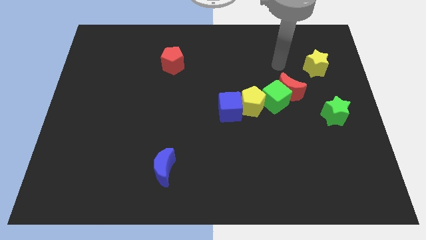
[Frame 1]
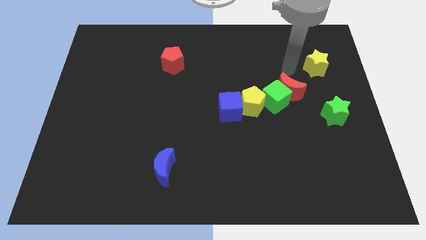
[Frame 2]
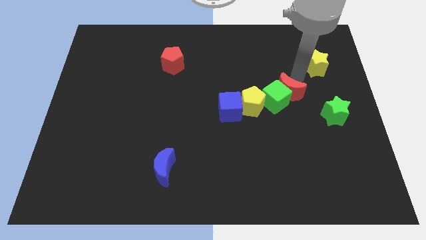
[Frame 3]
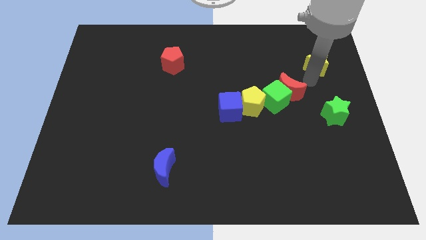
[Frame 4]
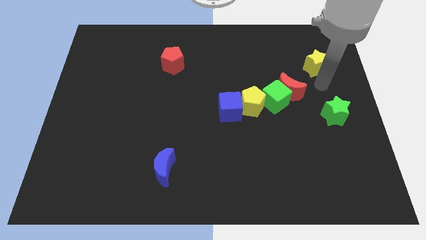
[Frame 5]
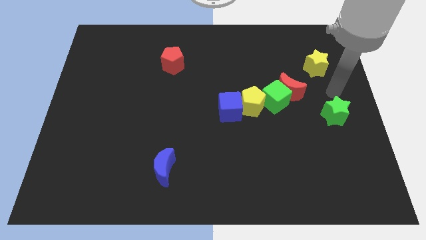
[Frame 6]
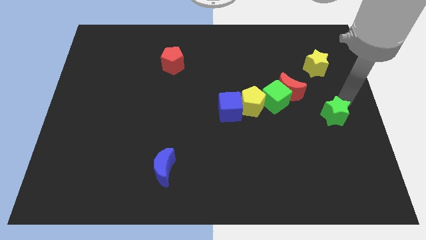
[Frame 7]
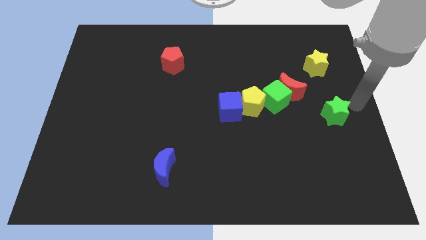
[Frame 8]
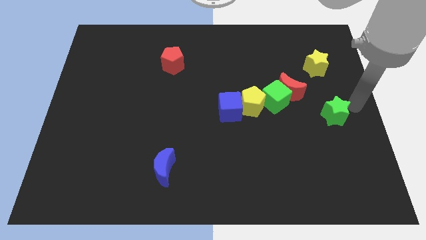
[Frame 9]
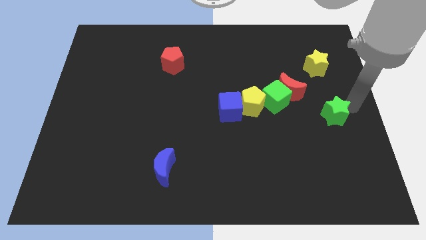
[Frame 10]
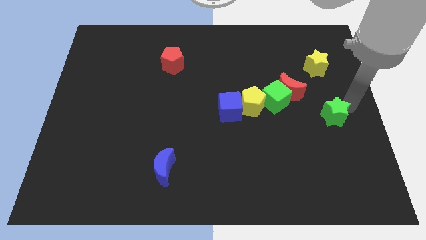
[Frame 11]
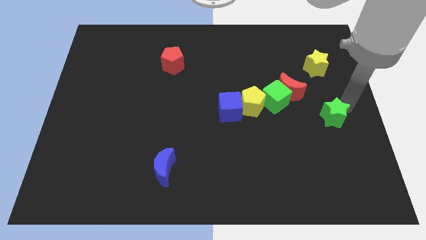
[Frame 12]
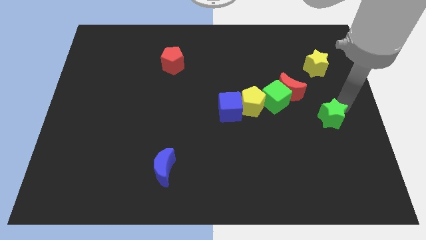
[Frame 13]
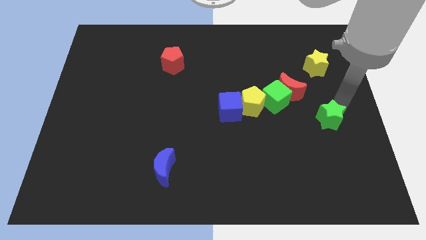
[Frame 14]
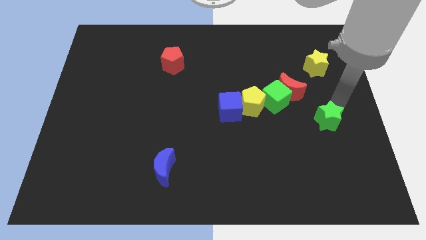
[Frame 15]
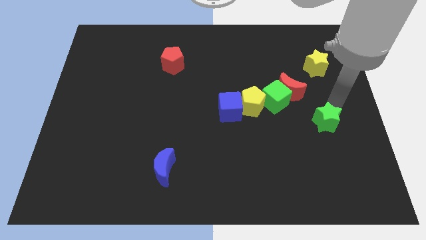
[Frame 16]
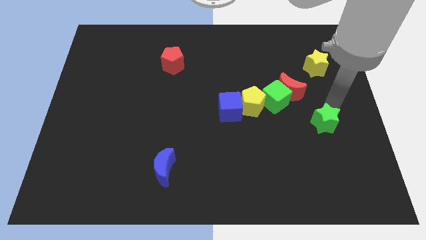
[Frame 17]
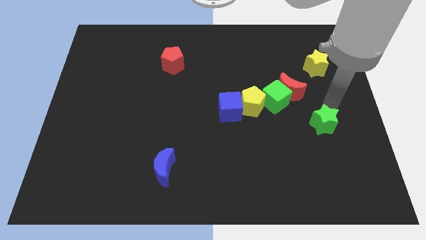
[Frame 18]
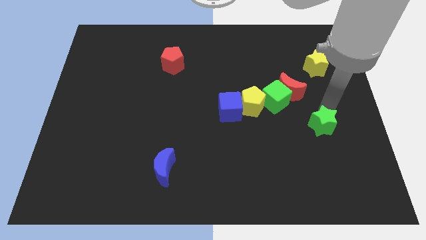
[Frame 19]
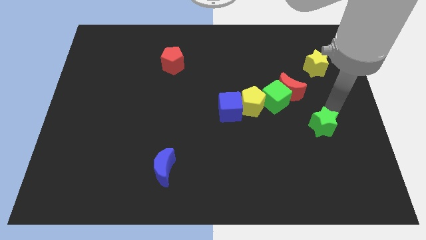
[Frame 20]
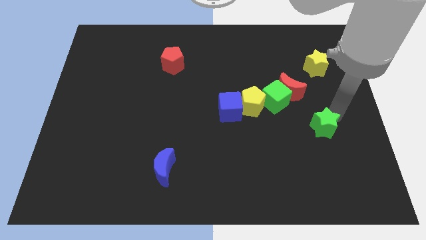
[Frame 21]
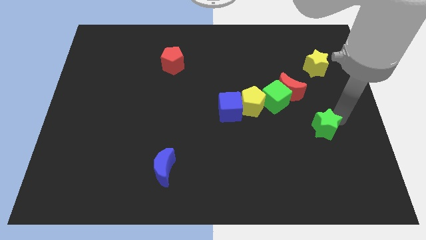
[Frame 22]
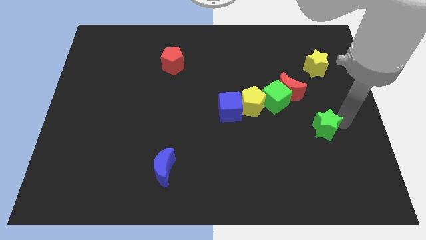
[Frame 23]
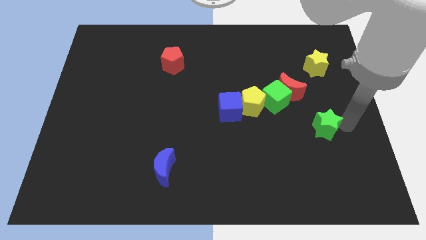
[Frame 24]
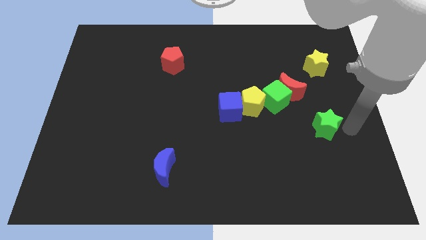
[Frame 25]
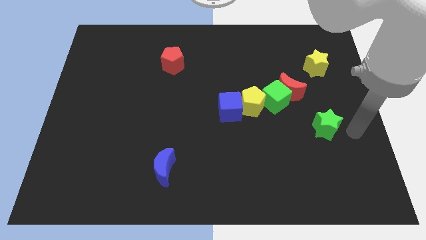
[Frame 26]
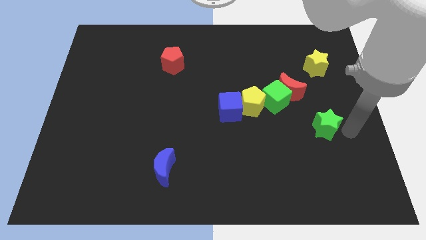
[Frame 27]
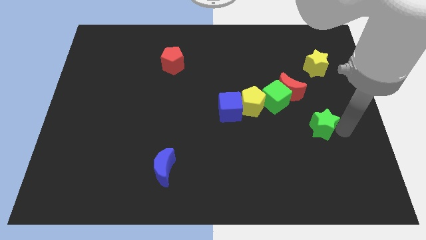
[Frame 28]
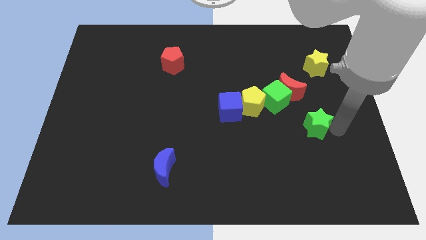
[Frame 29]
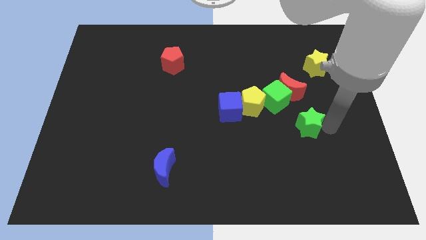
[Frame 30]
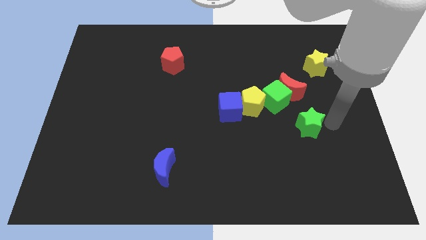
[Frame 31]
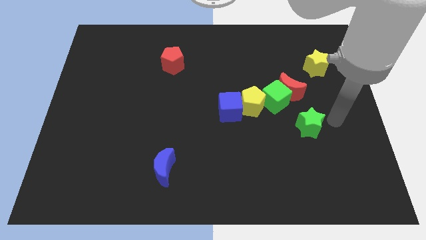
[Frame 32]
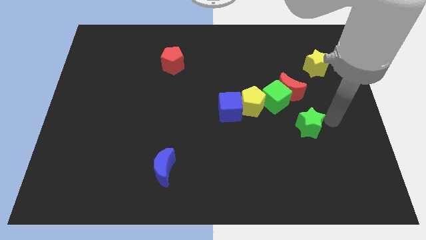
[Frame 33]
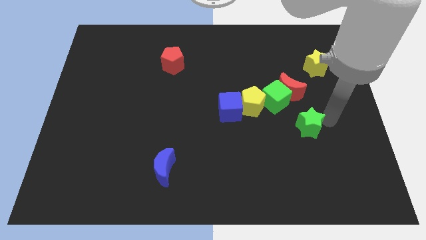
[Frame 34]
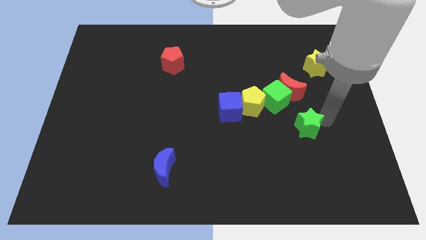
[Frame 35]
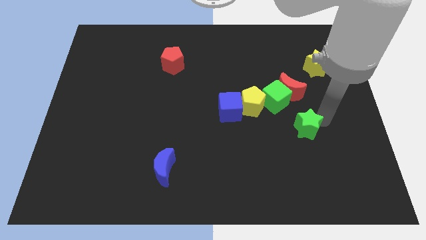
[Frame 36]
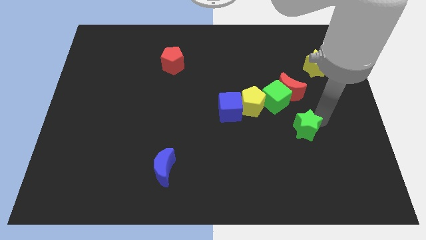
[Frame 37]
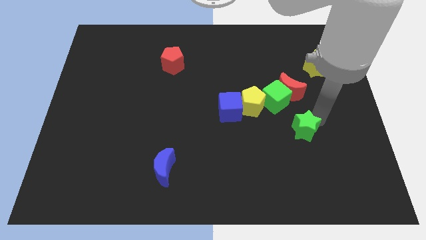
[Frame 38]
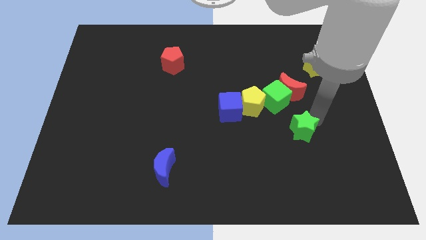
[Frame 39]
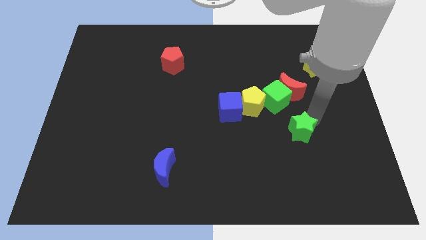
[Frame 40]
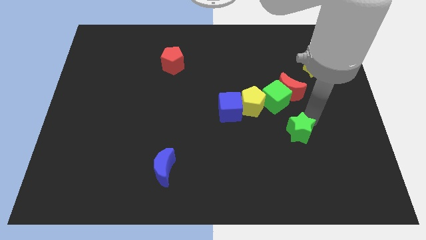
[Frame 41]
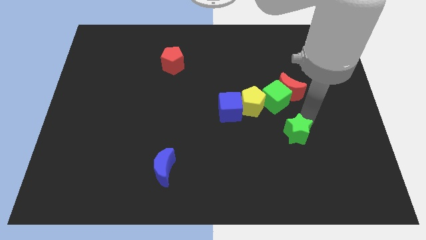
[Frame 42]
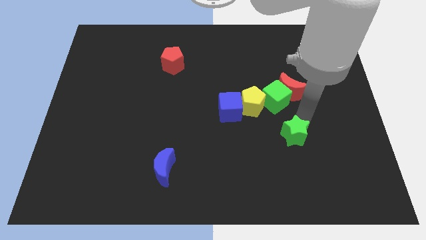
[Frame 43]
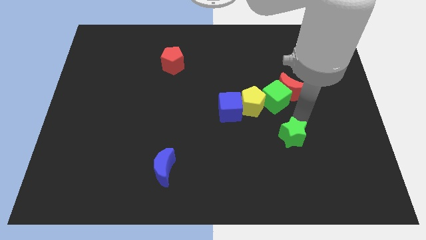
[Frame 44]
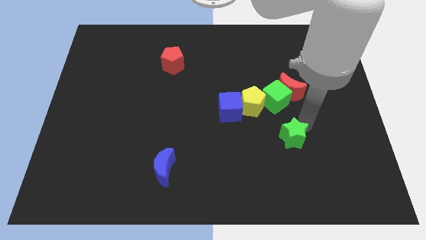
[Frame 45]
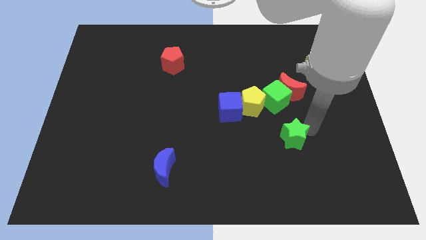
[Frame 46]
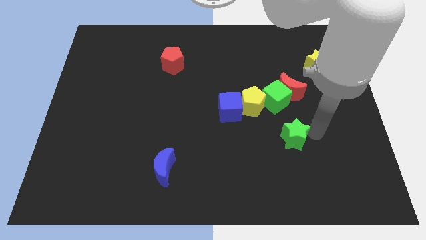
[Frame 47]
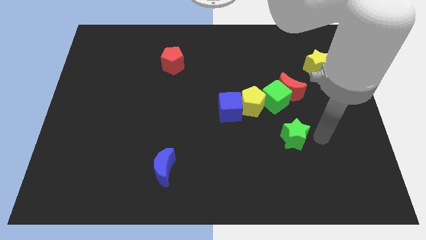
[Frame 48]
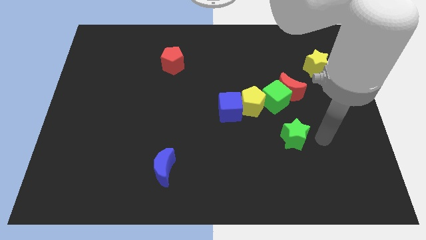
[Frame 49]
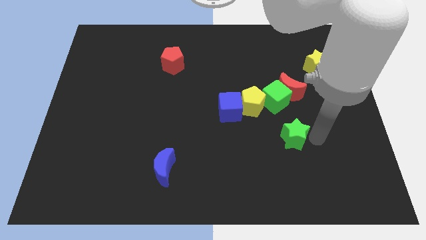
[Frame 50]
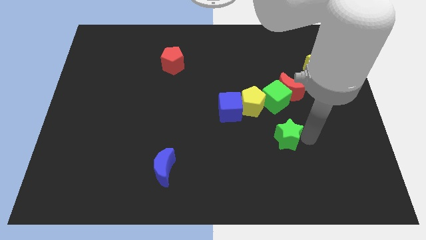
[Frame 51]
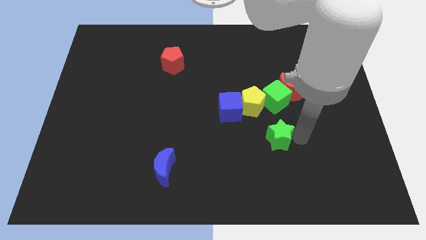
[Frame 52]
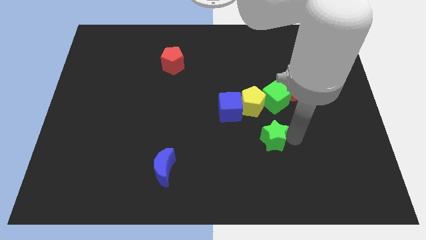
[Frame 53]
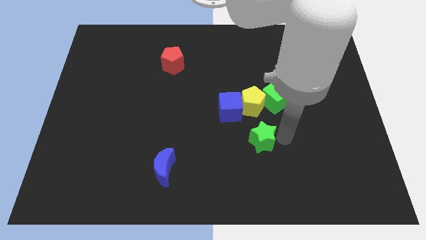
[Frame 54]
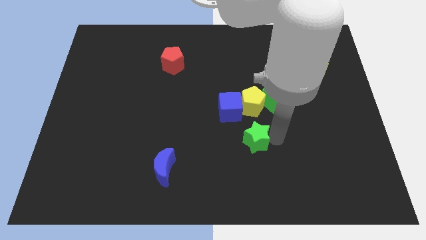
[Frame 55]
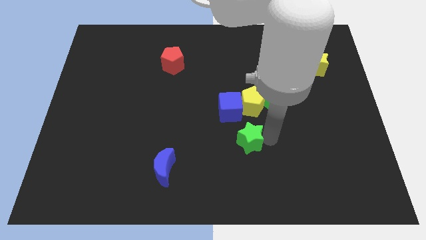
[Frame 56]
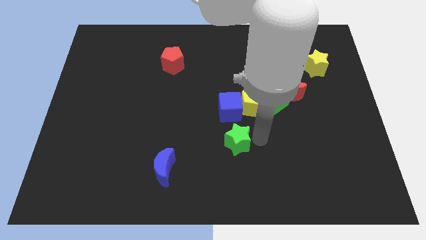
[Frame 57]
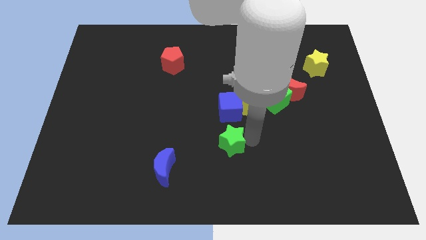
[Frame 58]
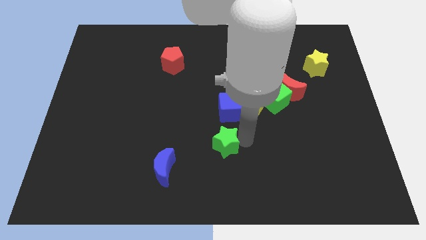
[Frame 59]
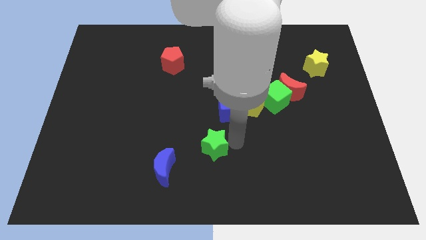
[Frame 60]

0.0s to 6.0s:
push the green star to the top right of the blue moon

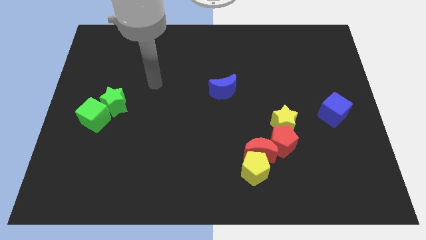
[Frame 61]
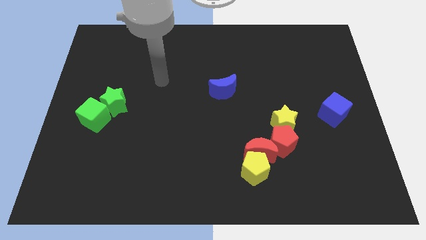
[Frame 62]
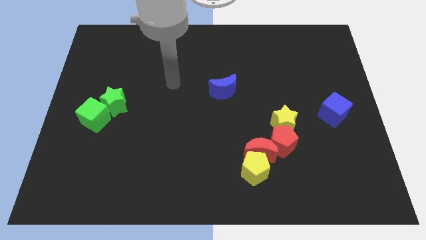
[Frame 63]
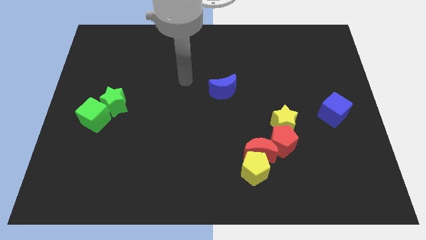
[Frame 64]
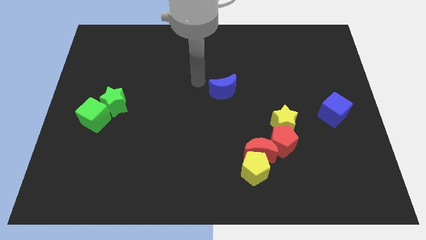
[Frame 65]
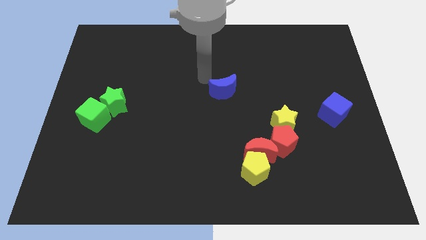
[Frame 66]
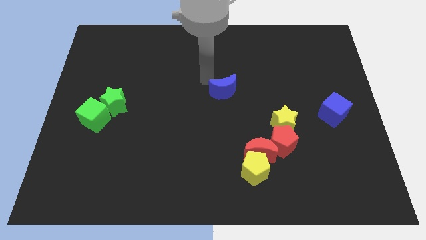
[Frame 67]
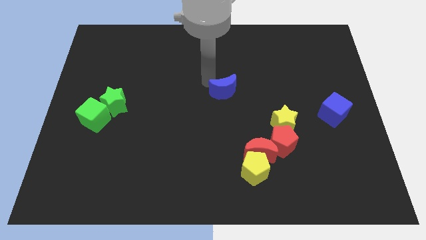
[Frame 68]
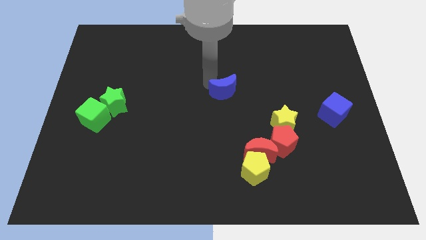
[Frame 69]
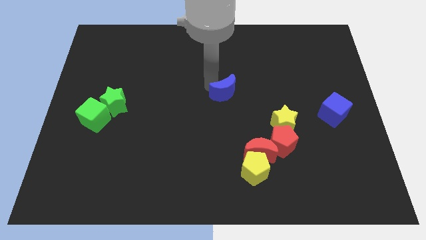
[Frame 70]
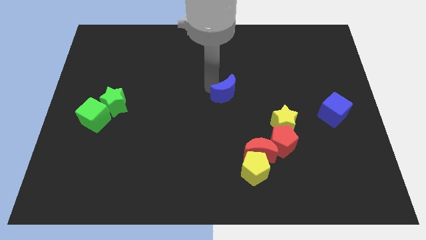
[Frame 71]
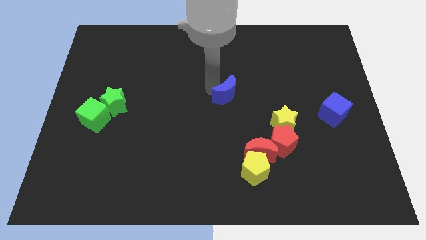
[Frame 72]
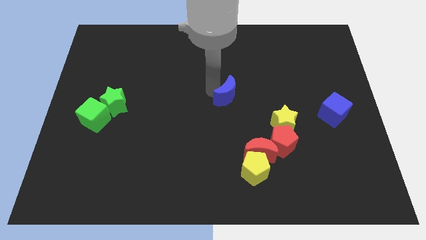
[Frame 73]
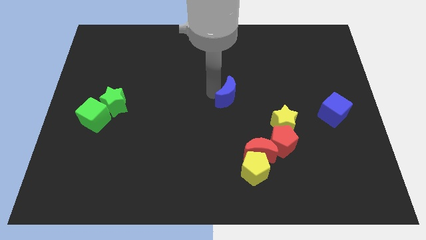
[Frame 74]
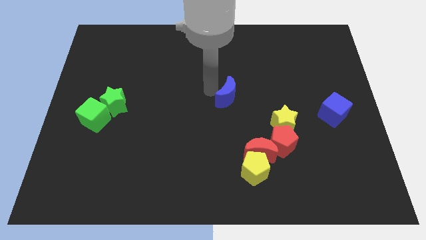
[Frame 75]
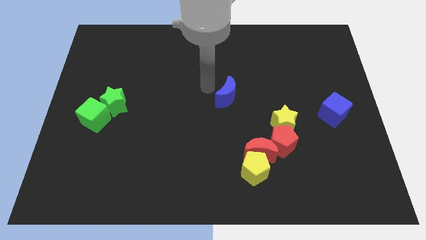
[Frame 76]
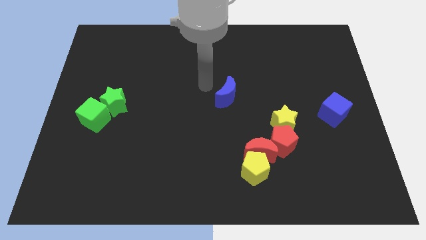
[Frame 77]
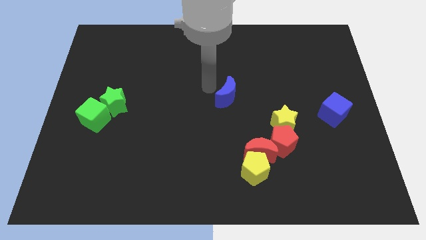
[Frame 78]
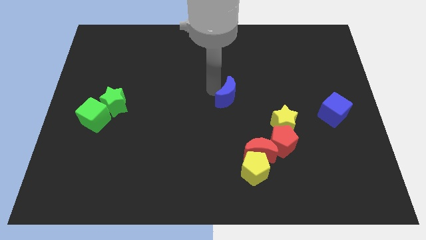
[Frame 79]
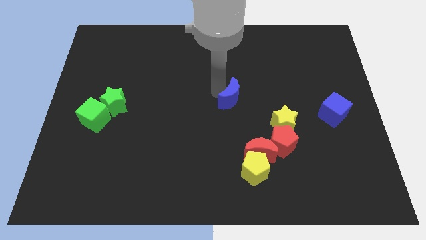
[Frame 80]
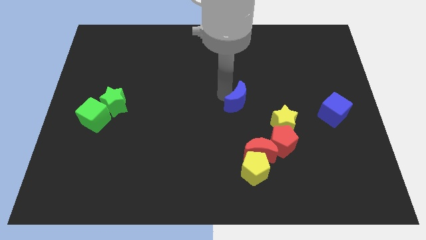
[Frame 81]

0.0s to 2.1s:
push the blue moon above the red moon
